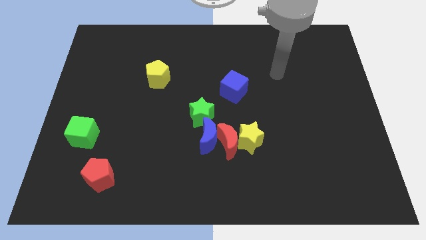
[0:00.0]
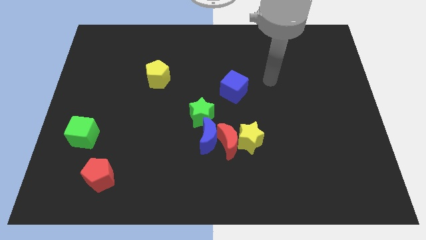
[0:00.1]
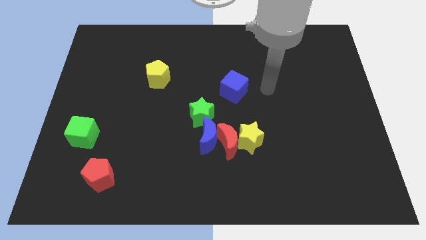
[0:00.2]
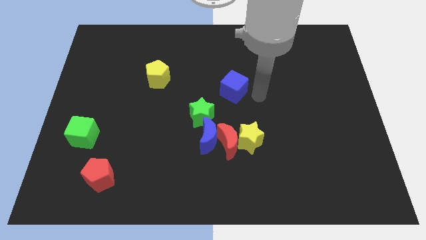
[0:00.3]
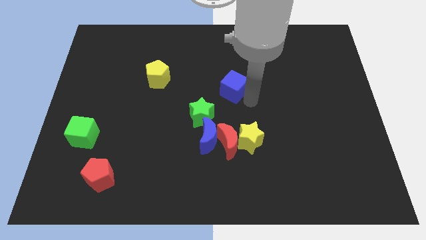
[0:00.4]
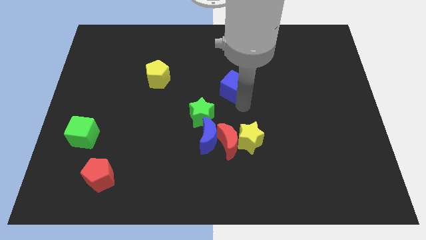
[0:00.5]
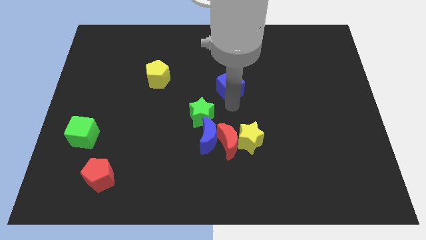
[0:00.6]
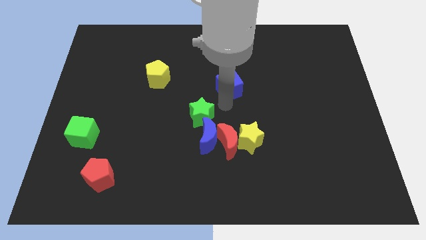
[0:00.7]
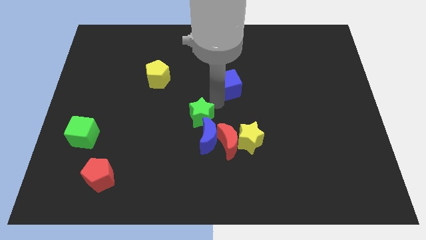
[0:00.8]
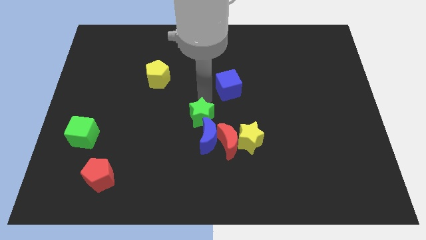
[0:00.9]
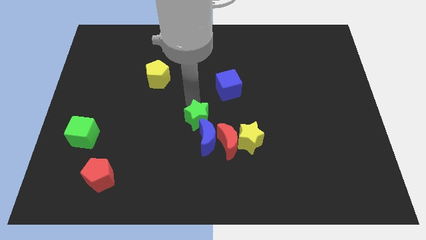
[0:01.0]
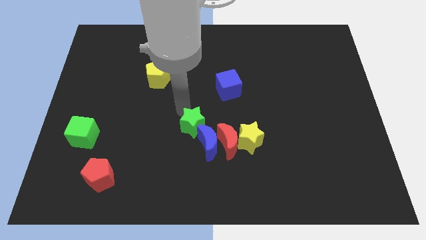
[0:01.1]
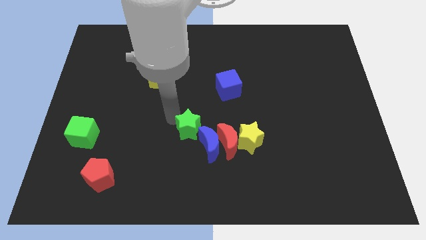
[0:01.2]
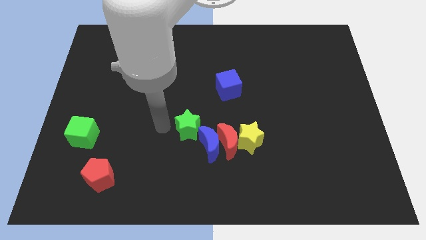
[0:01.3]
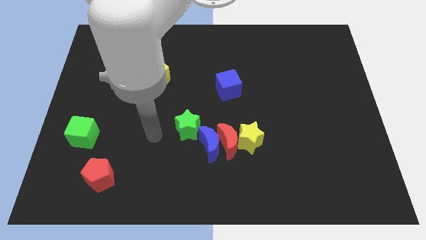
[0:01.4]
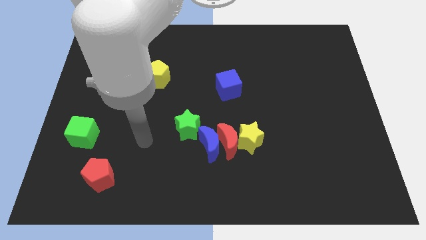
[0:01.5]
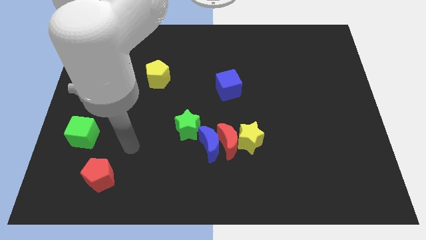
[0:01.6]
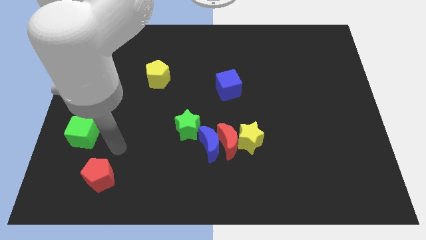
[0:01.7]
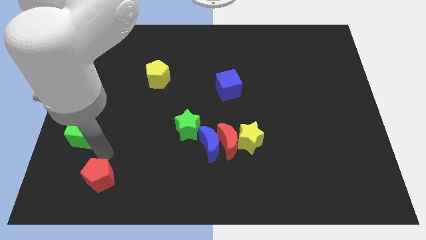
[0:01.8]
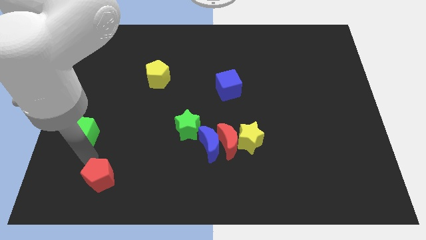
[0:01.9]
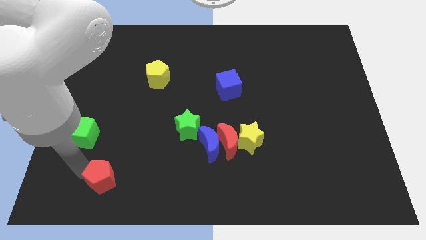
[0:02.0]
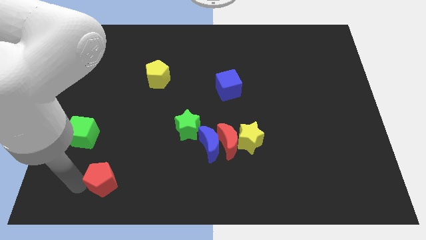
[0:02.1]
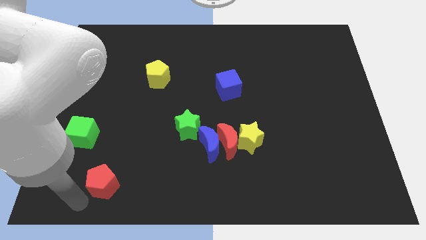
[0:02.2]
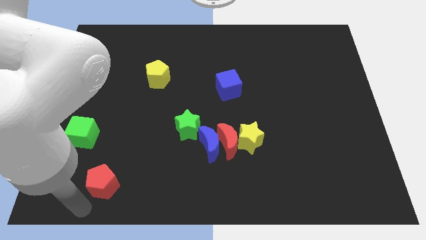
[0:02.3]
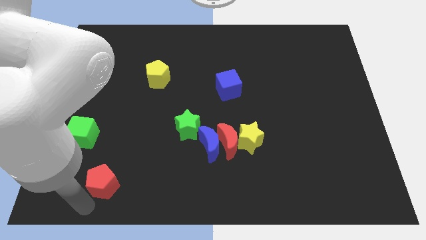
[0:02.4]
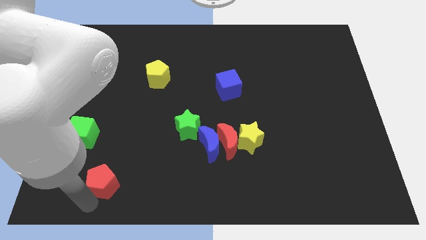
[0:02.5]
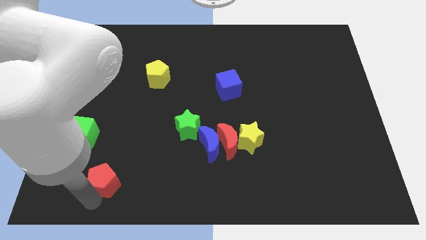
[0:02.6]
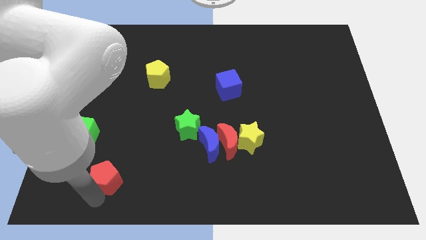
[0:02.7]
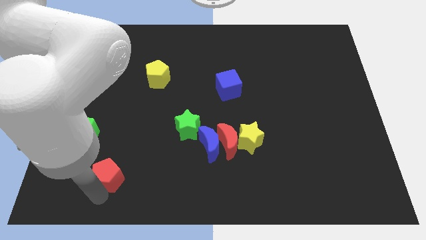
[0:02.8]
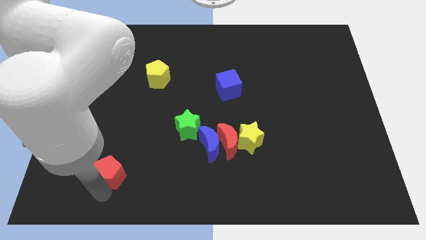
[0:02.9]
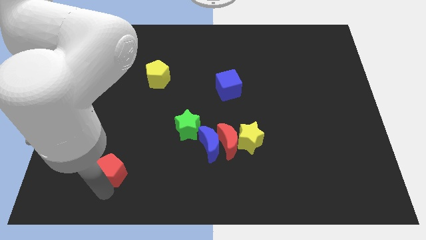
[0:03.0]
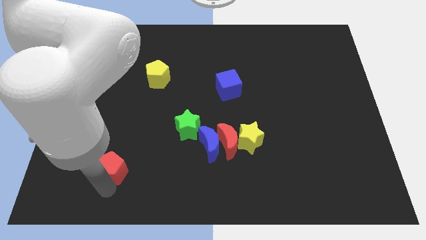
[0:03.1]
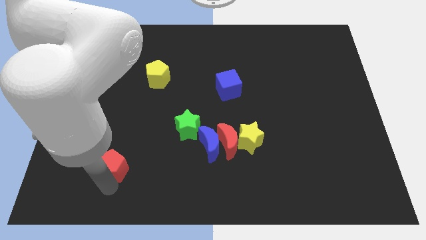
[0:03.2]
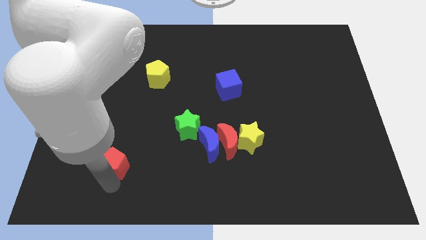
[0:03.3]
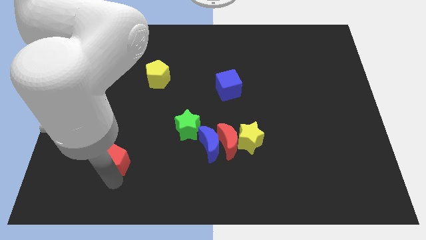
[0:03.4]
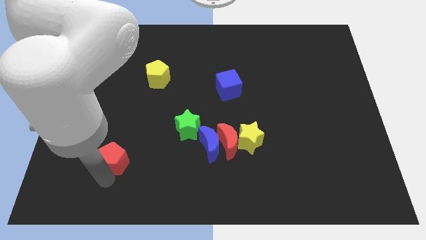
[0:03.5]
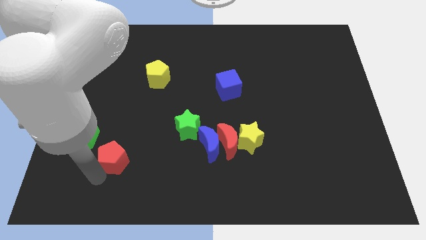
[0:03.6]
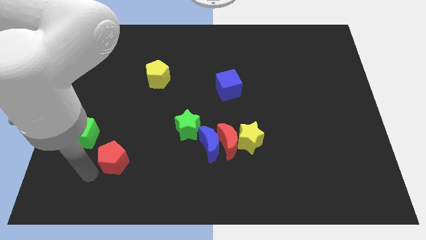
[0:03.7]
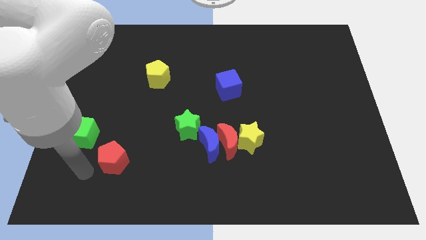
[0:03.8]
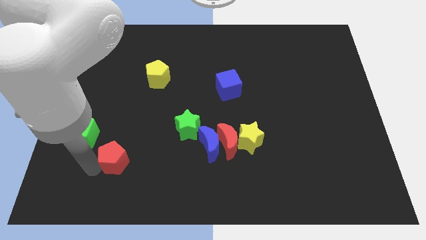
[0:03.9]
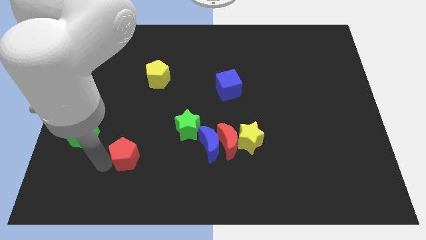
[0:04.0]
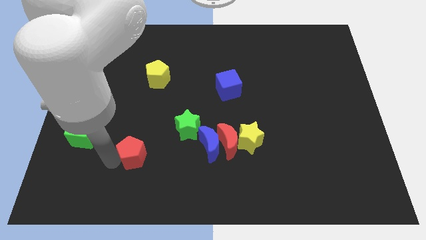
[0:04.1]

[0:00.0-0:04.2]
move the red pentagon diagonally up and to the right a little

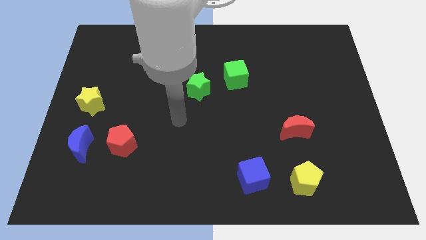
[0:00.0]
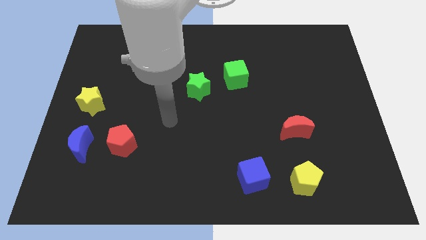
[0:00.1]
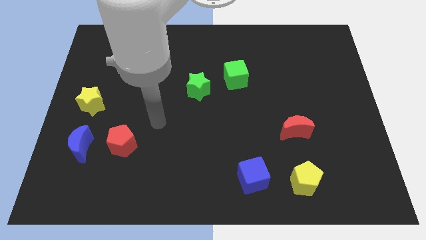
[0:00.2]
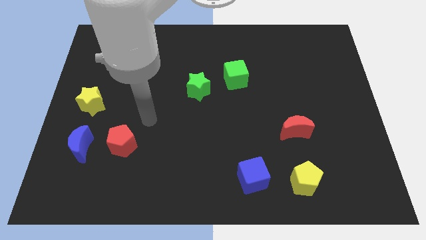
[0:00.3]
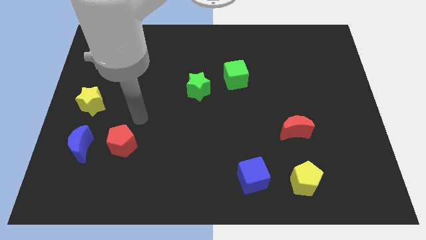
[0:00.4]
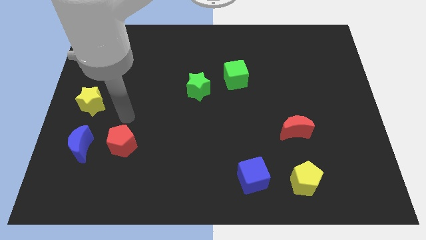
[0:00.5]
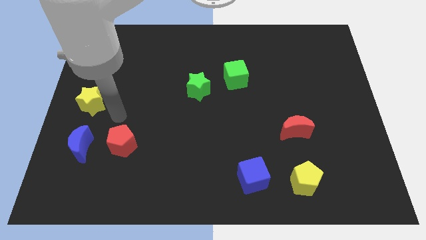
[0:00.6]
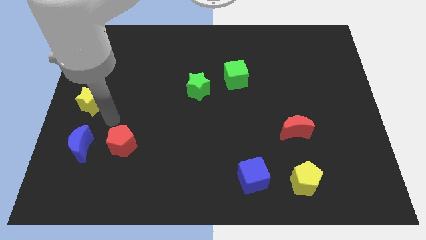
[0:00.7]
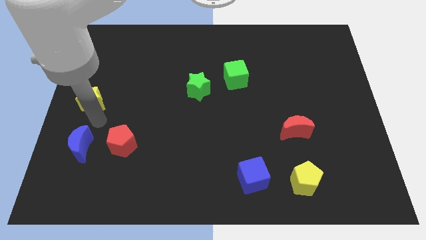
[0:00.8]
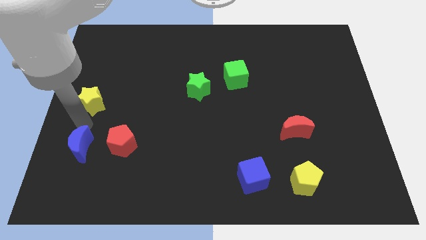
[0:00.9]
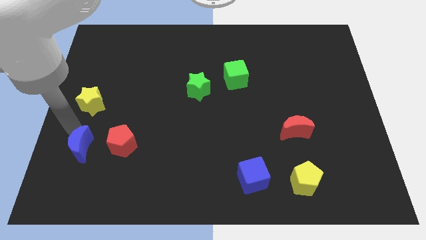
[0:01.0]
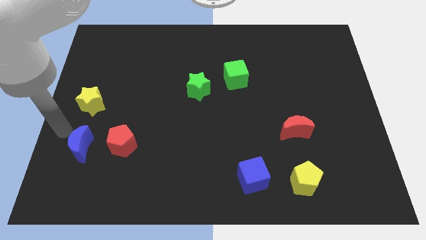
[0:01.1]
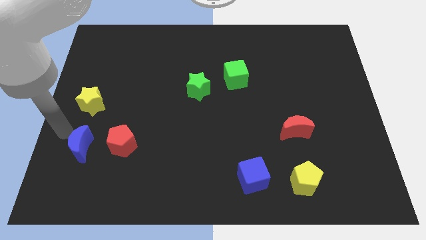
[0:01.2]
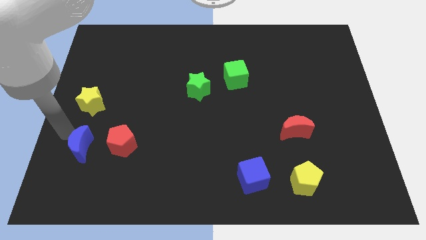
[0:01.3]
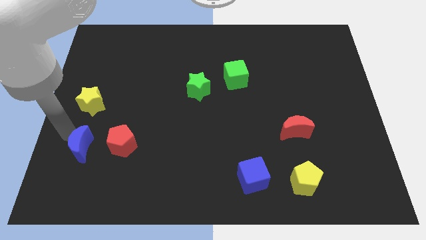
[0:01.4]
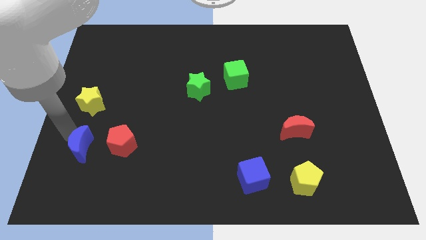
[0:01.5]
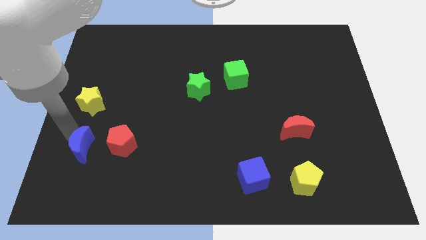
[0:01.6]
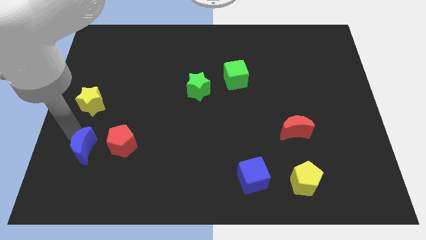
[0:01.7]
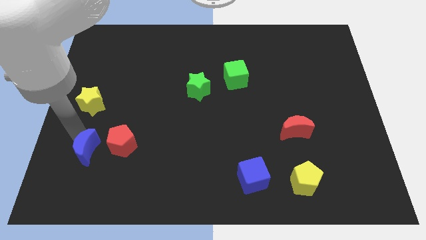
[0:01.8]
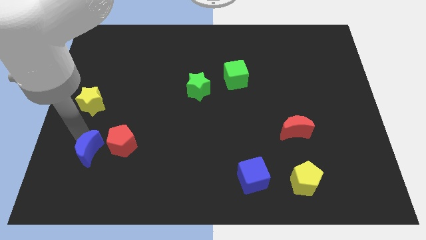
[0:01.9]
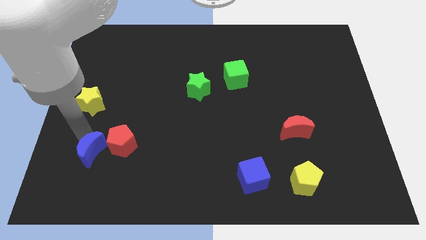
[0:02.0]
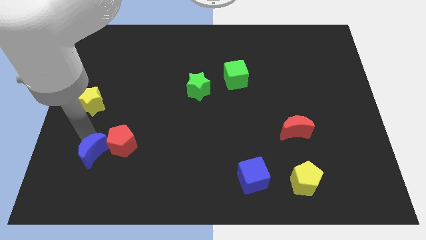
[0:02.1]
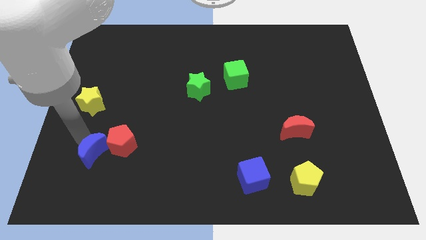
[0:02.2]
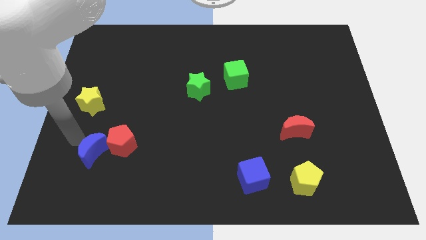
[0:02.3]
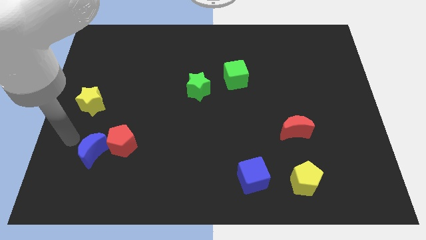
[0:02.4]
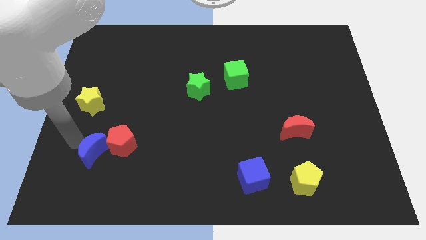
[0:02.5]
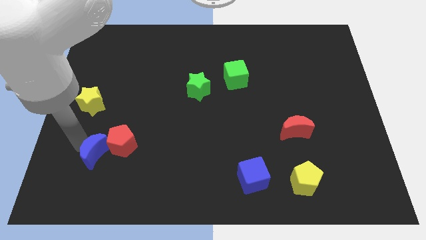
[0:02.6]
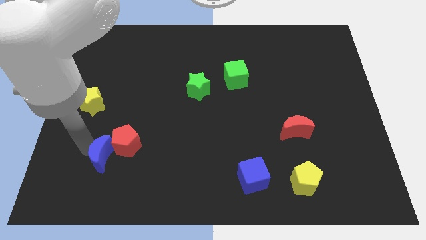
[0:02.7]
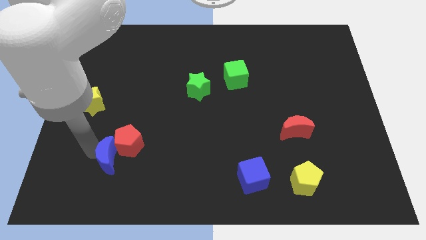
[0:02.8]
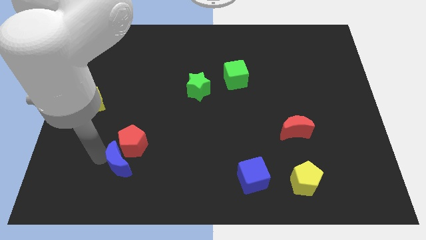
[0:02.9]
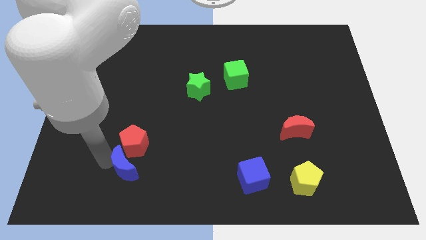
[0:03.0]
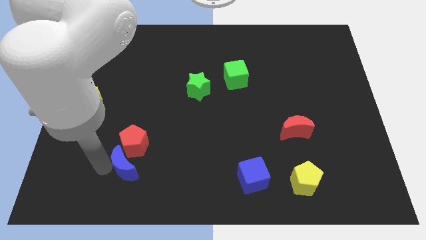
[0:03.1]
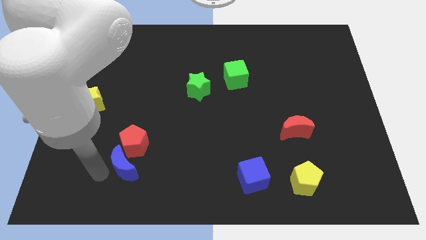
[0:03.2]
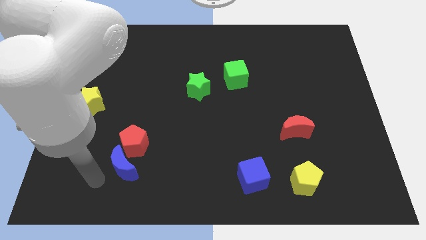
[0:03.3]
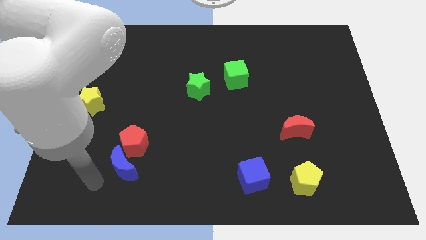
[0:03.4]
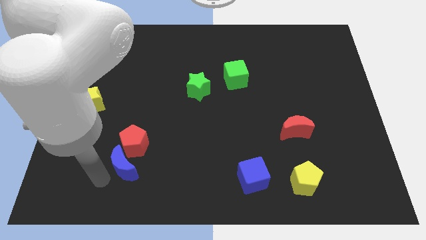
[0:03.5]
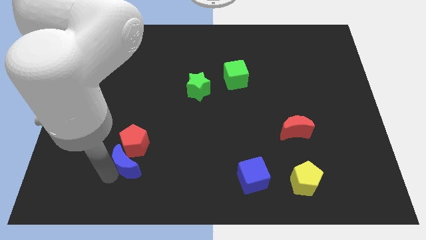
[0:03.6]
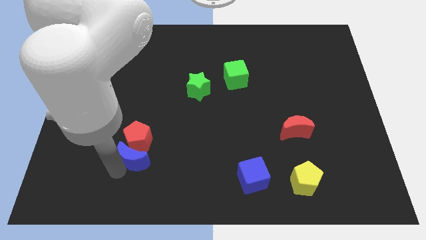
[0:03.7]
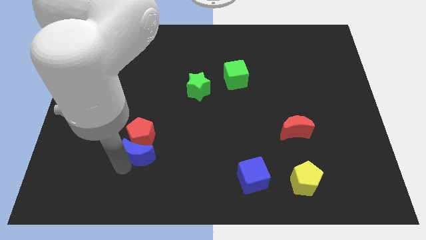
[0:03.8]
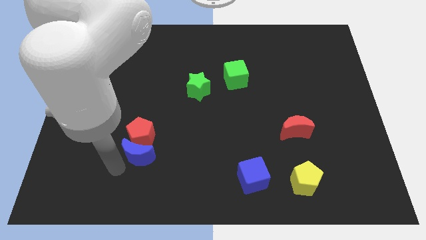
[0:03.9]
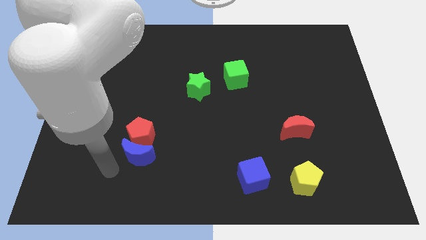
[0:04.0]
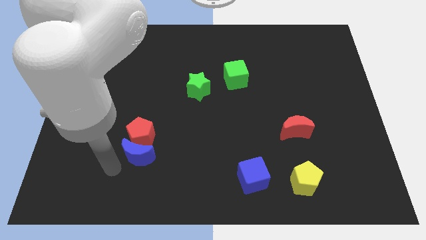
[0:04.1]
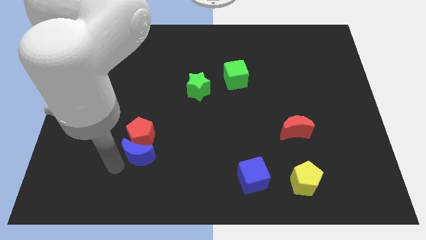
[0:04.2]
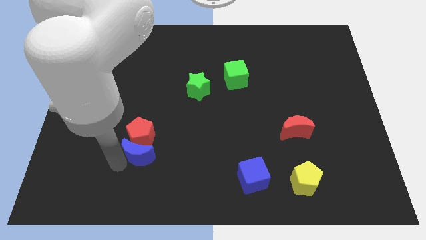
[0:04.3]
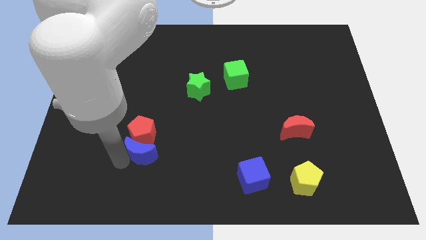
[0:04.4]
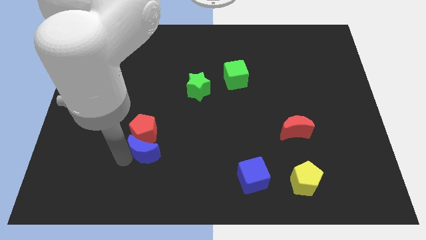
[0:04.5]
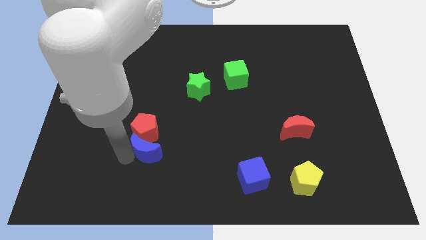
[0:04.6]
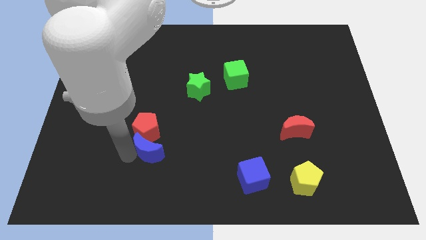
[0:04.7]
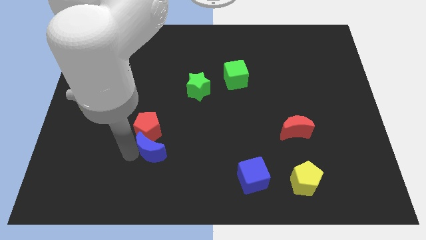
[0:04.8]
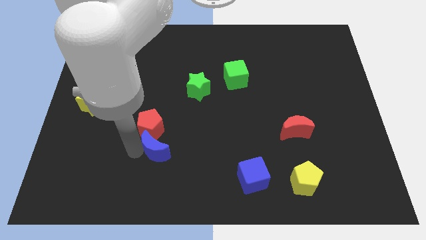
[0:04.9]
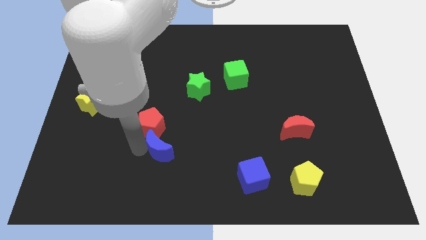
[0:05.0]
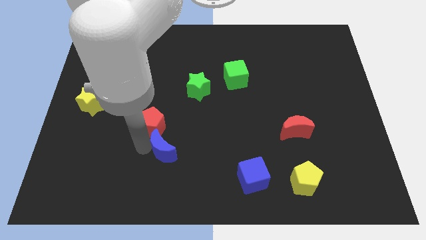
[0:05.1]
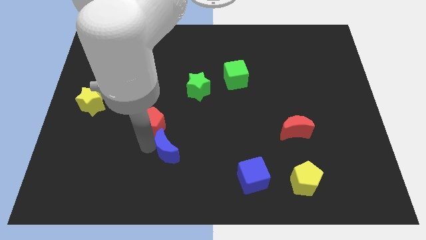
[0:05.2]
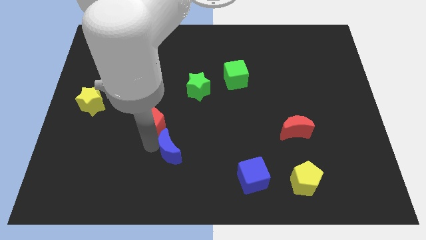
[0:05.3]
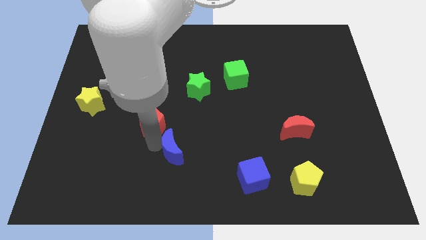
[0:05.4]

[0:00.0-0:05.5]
push the blue moon right
